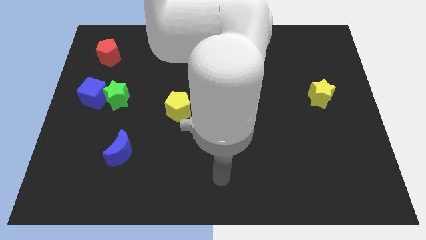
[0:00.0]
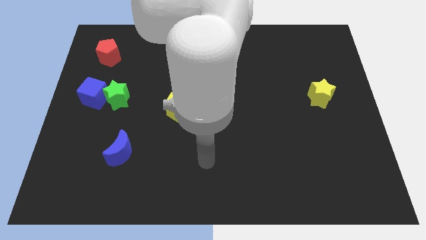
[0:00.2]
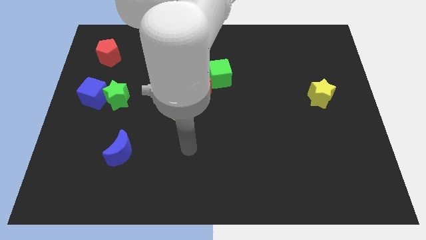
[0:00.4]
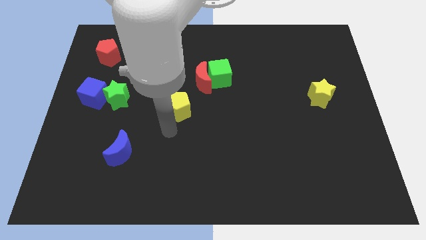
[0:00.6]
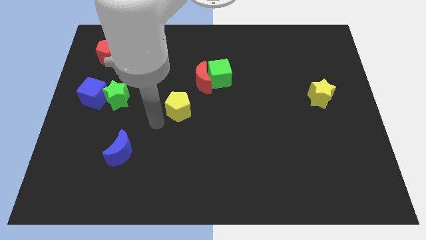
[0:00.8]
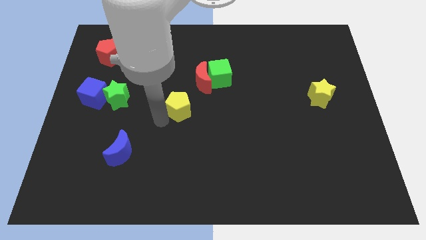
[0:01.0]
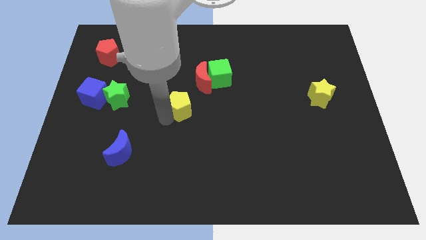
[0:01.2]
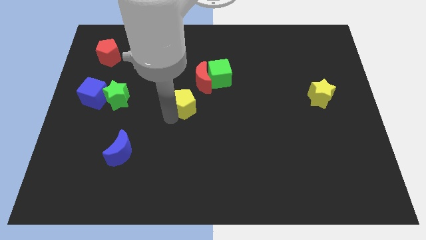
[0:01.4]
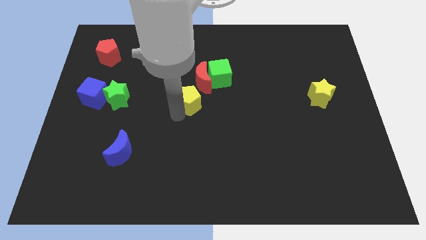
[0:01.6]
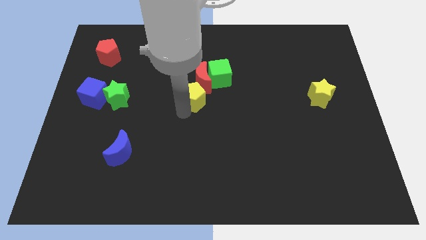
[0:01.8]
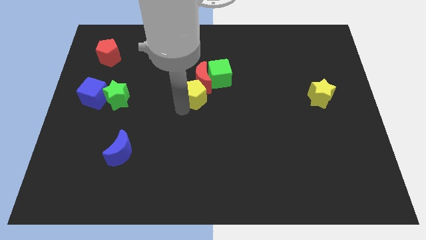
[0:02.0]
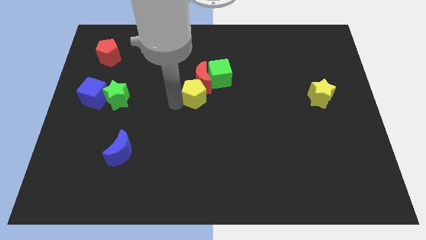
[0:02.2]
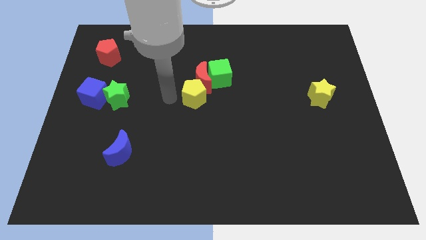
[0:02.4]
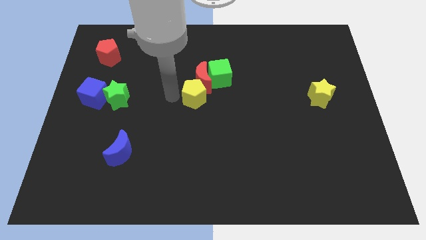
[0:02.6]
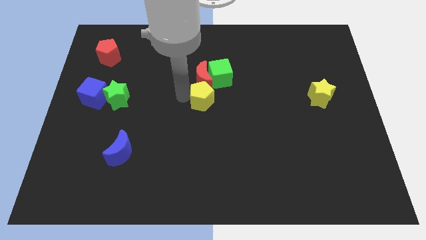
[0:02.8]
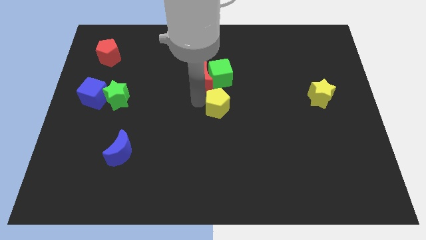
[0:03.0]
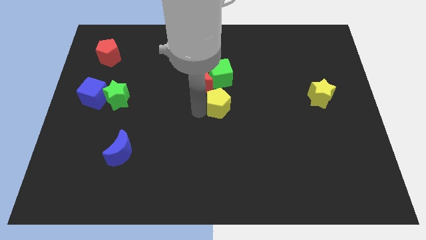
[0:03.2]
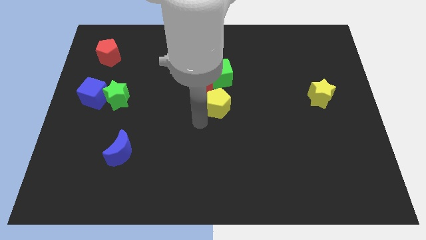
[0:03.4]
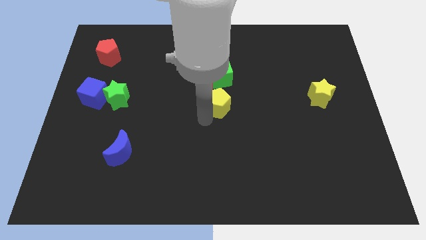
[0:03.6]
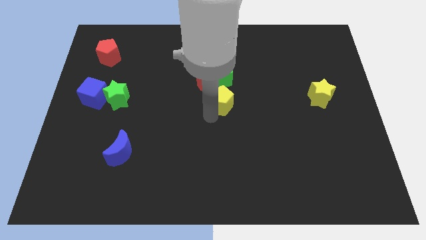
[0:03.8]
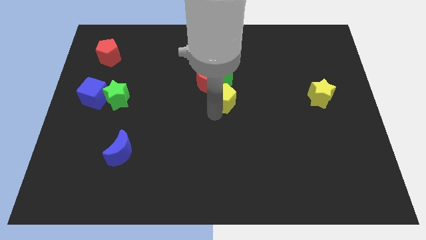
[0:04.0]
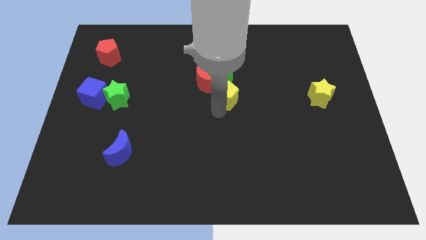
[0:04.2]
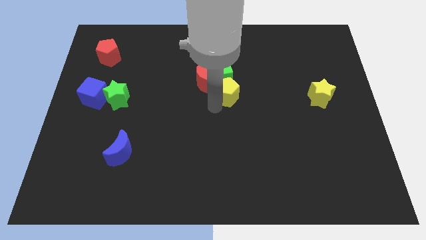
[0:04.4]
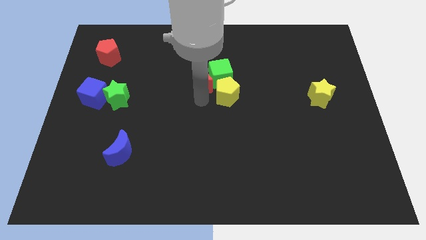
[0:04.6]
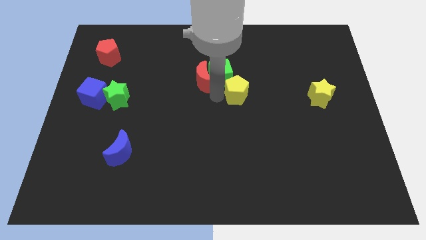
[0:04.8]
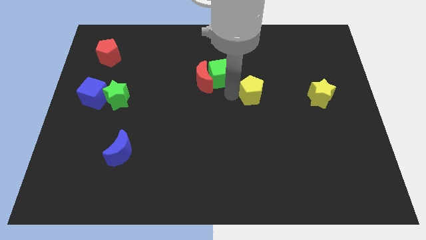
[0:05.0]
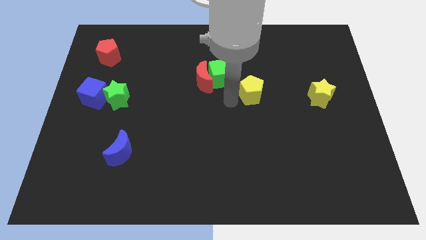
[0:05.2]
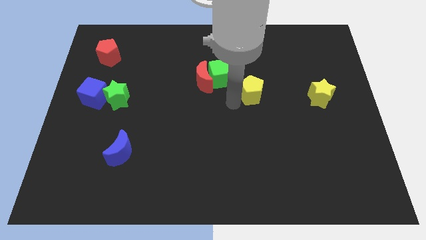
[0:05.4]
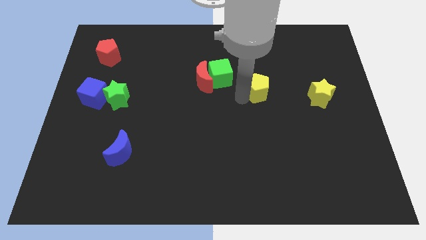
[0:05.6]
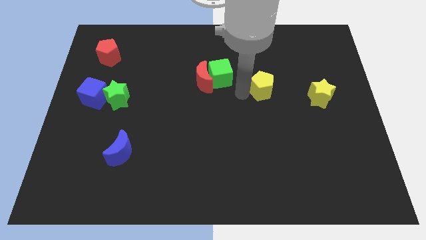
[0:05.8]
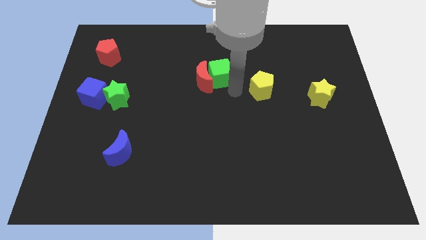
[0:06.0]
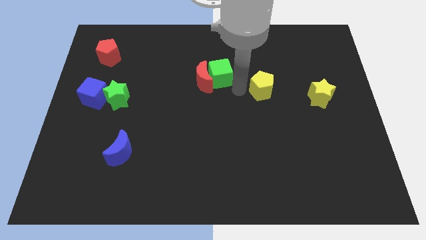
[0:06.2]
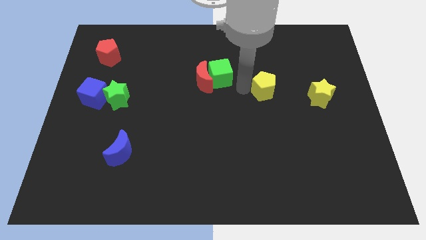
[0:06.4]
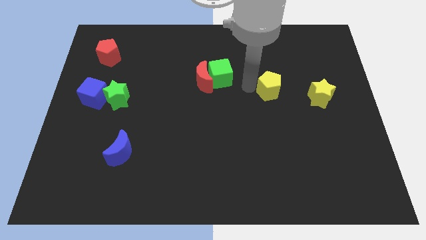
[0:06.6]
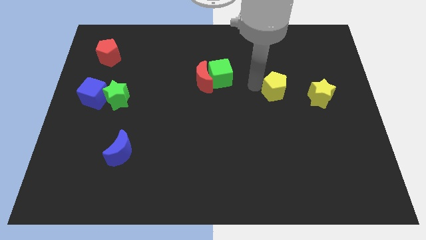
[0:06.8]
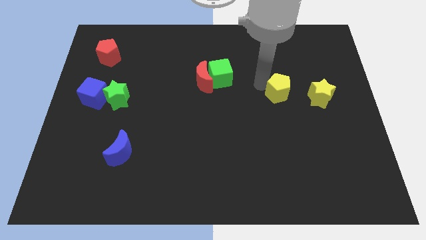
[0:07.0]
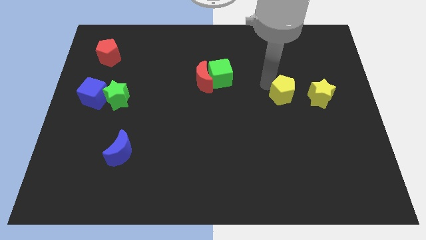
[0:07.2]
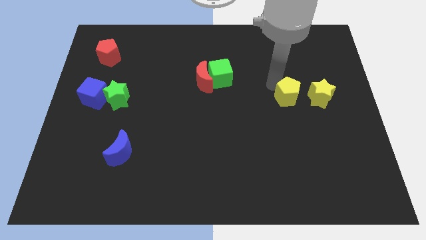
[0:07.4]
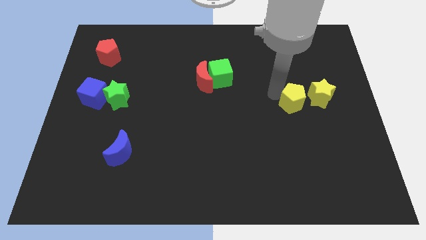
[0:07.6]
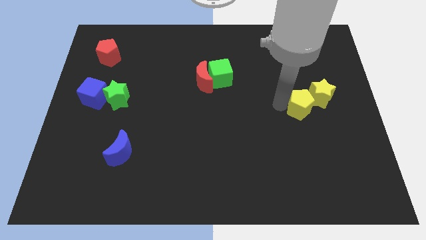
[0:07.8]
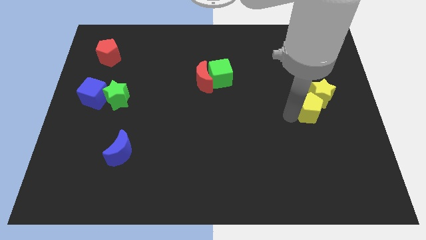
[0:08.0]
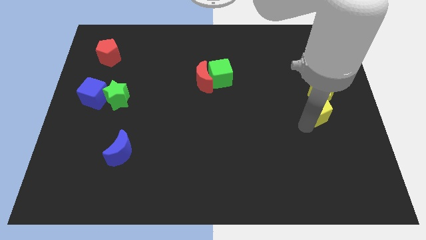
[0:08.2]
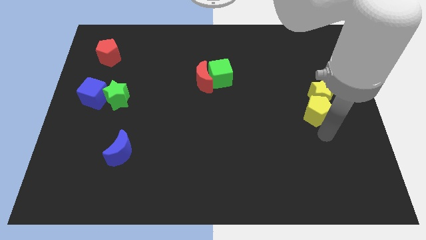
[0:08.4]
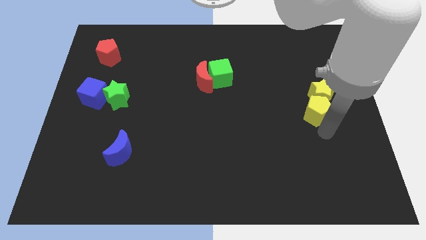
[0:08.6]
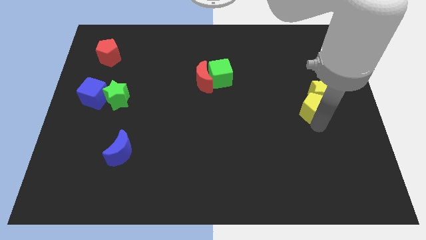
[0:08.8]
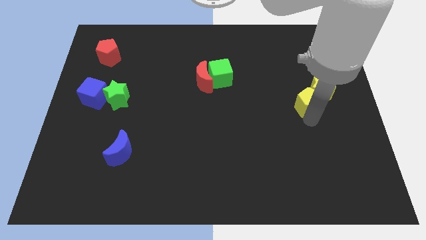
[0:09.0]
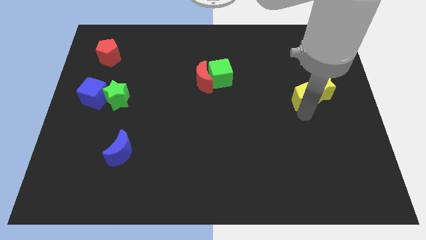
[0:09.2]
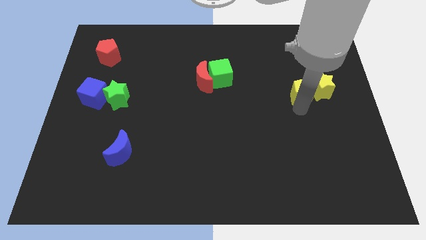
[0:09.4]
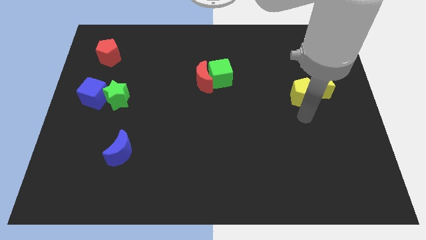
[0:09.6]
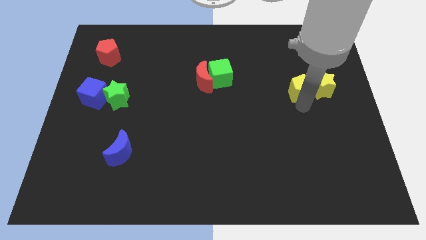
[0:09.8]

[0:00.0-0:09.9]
push the yellow pentagon to the top left of the yellow star

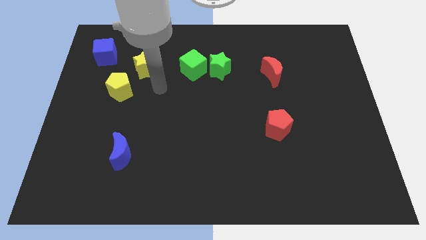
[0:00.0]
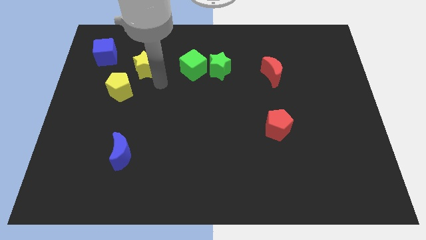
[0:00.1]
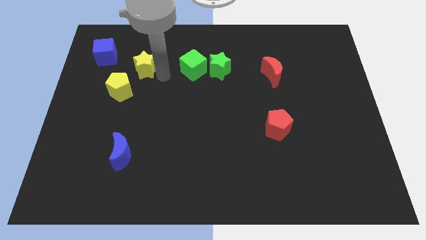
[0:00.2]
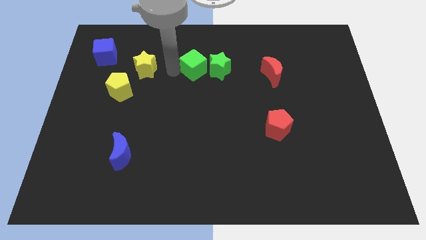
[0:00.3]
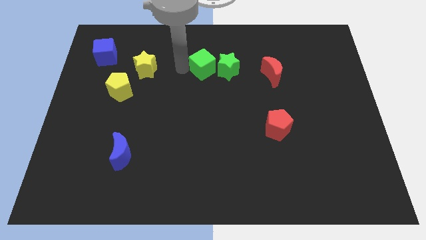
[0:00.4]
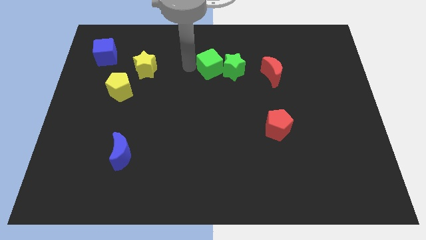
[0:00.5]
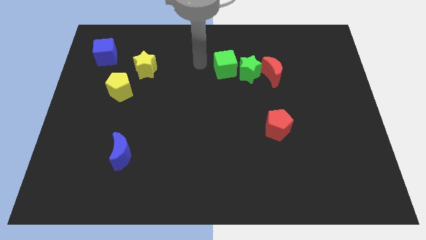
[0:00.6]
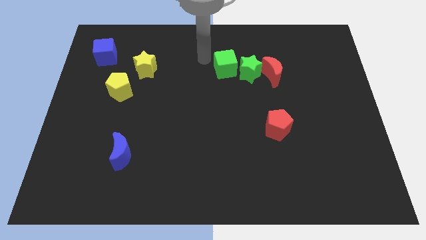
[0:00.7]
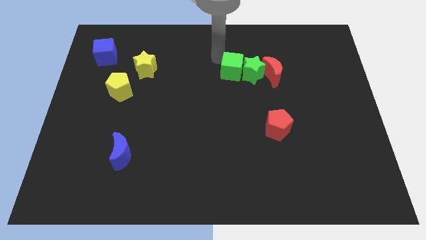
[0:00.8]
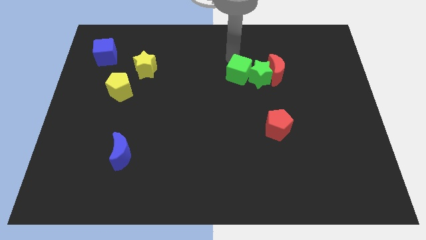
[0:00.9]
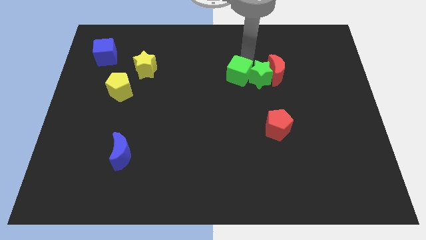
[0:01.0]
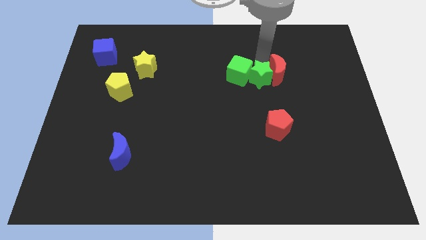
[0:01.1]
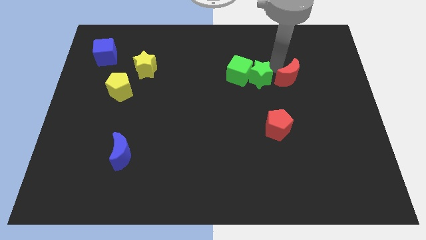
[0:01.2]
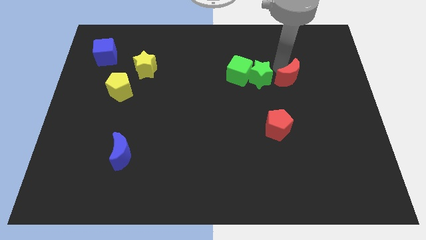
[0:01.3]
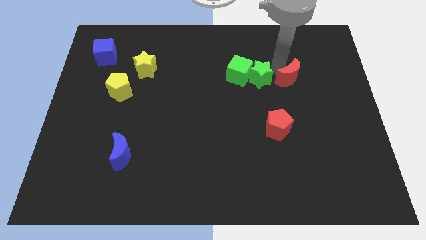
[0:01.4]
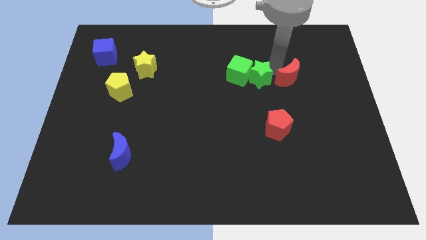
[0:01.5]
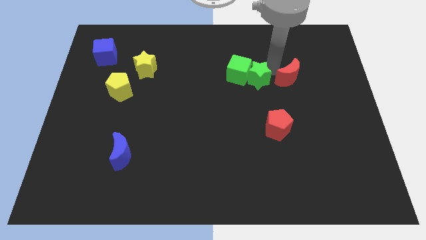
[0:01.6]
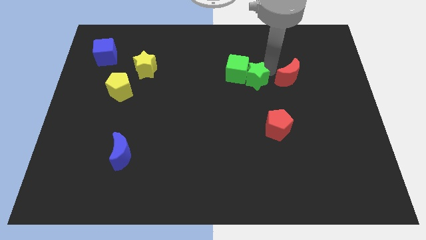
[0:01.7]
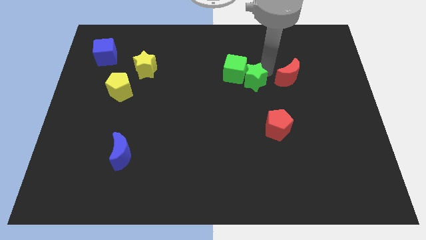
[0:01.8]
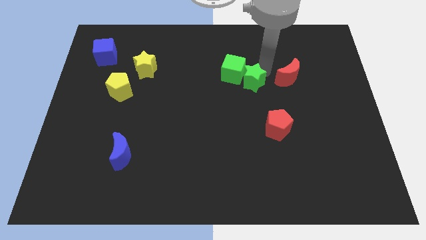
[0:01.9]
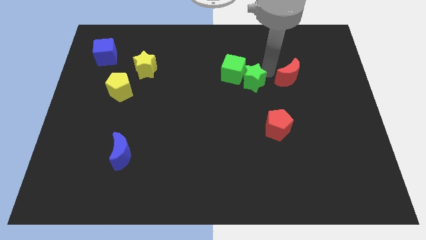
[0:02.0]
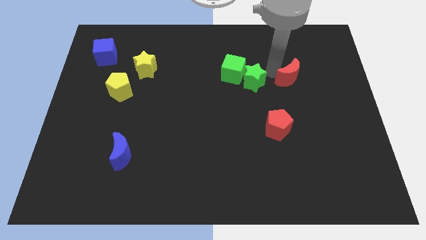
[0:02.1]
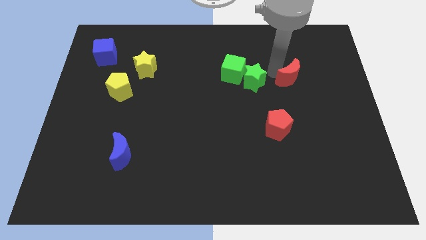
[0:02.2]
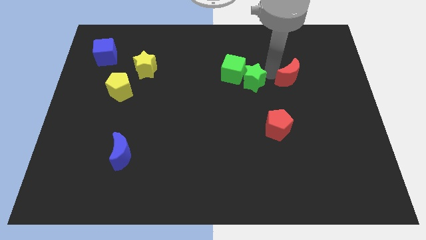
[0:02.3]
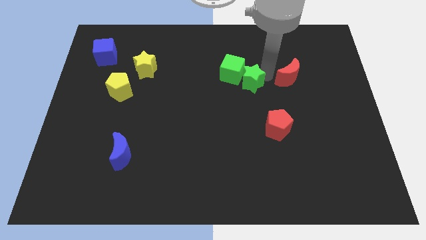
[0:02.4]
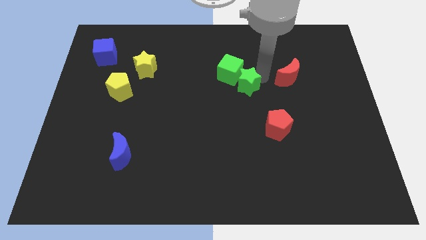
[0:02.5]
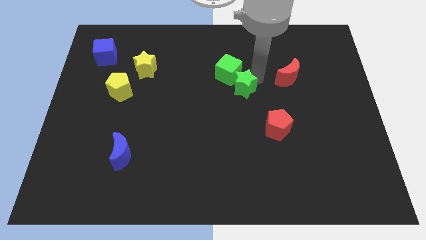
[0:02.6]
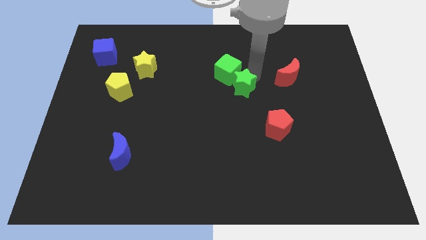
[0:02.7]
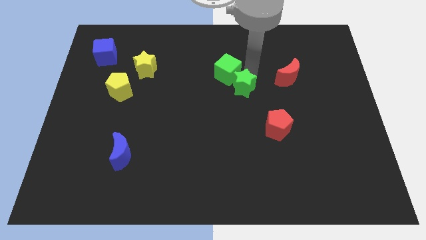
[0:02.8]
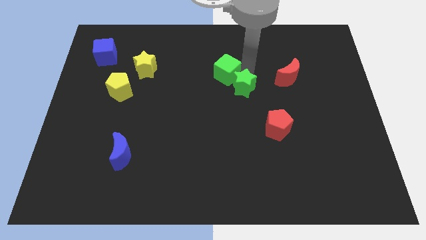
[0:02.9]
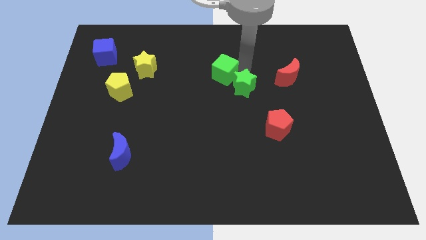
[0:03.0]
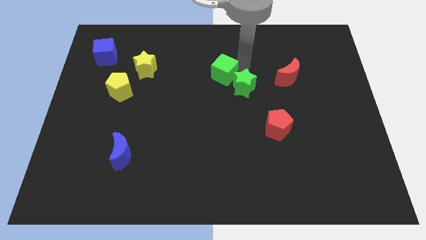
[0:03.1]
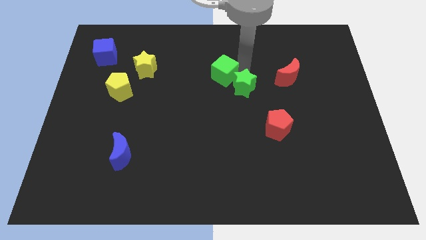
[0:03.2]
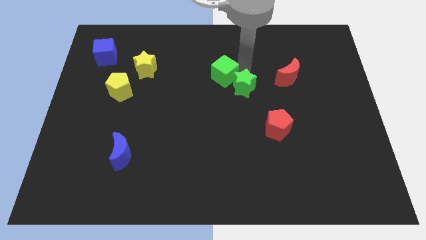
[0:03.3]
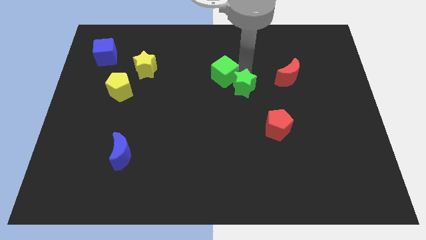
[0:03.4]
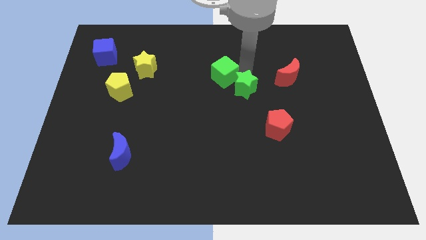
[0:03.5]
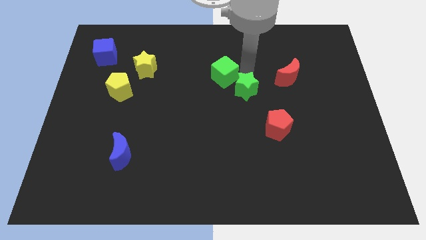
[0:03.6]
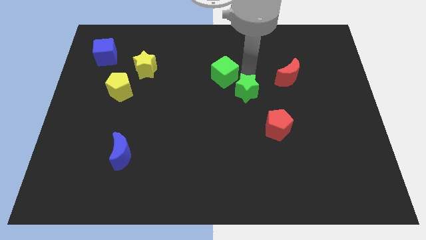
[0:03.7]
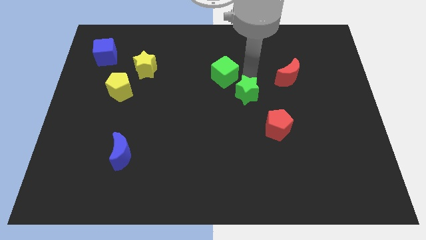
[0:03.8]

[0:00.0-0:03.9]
slide the green star to the top left side of the red pentagon
